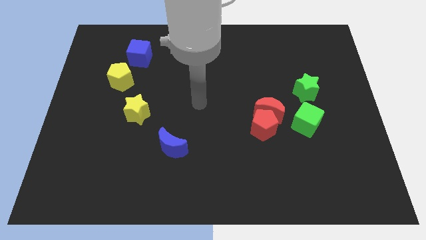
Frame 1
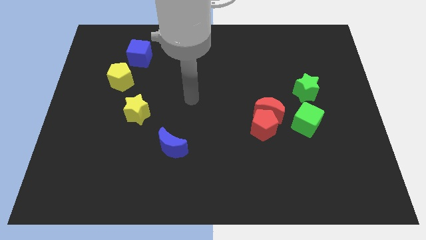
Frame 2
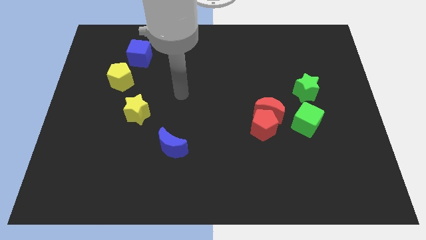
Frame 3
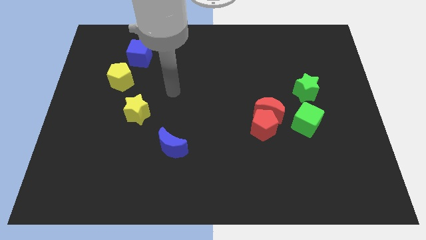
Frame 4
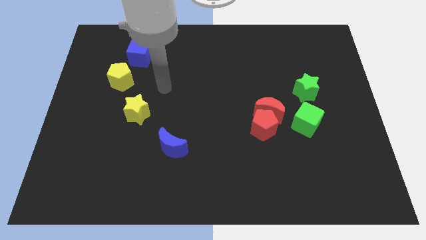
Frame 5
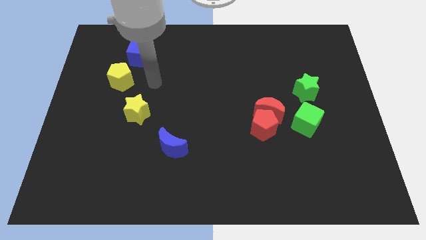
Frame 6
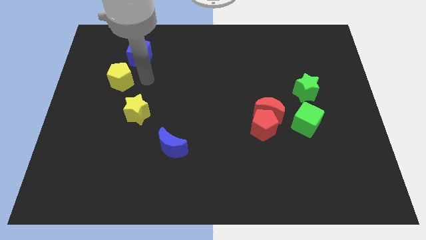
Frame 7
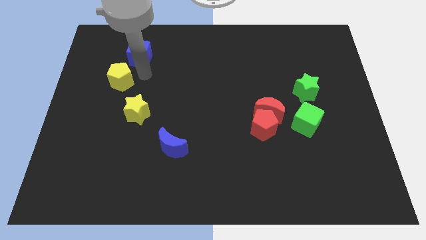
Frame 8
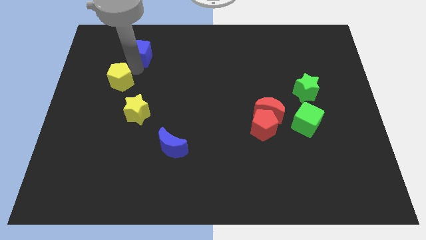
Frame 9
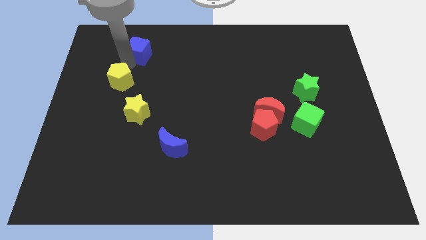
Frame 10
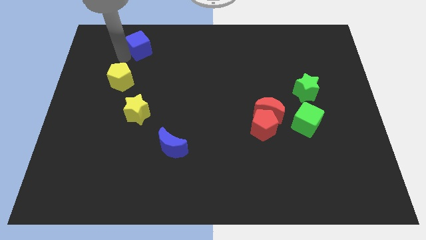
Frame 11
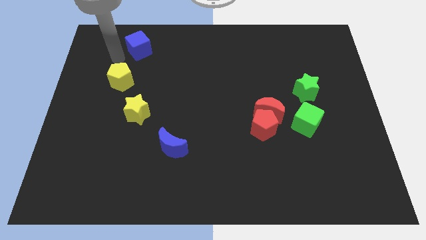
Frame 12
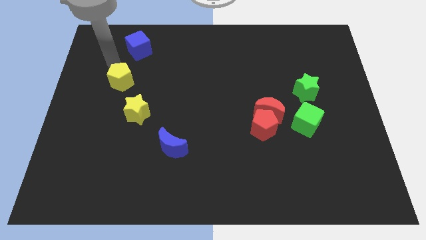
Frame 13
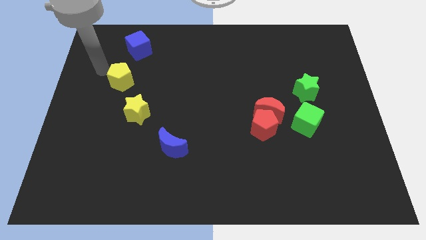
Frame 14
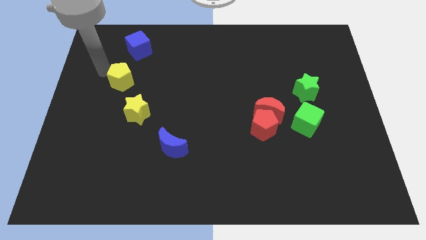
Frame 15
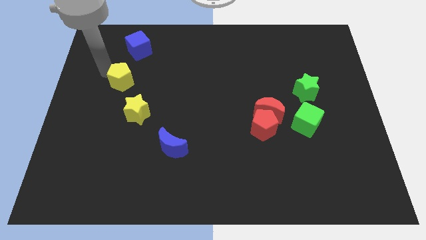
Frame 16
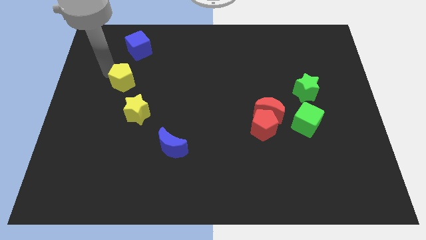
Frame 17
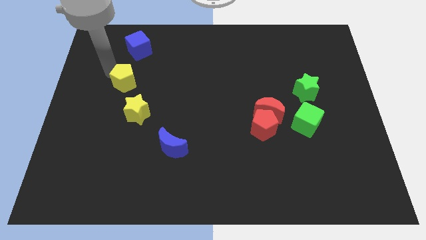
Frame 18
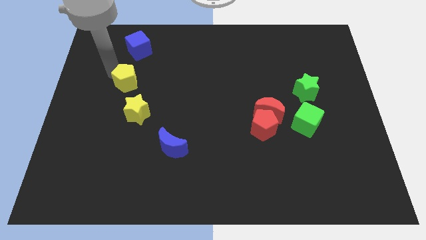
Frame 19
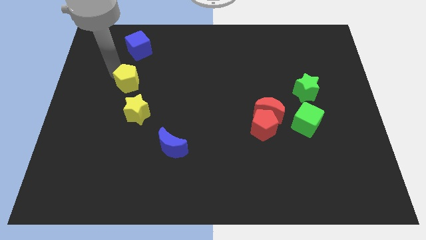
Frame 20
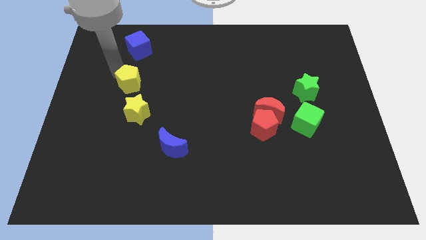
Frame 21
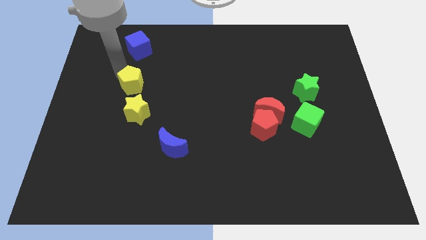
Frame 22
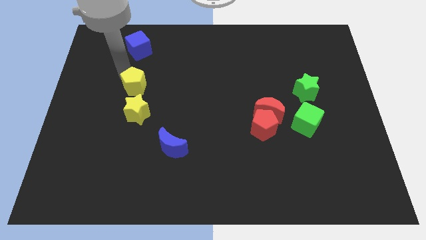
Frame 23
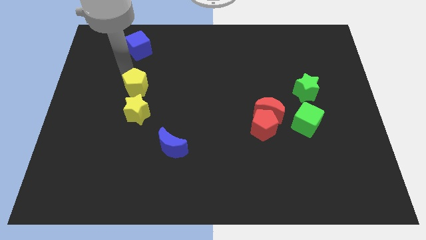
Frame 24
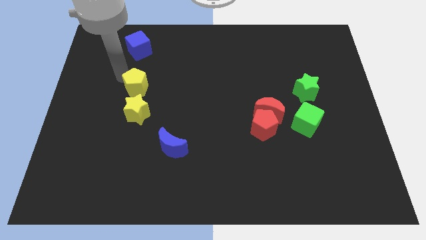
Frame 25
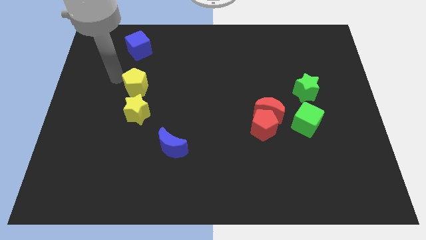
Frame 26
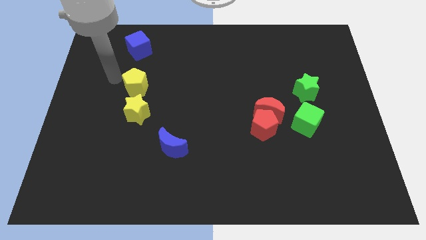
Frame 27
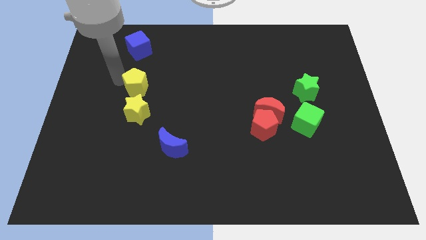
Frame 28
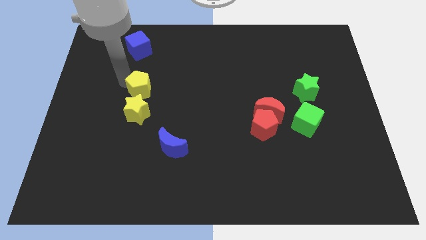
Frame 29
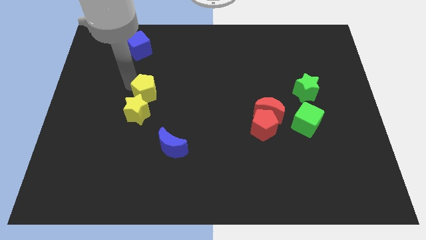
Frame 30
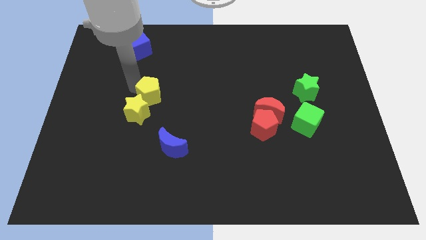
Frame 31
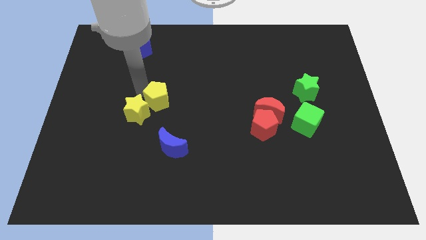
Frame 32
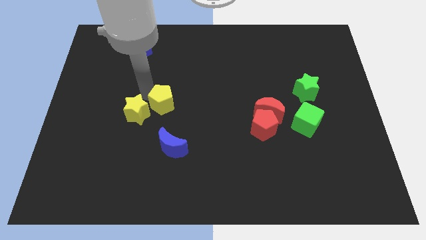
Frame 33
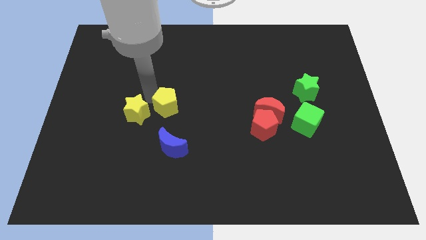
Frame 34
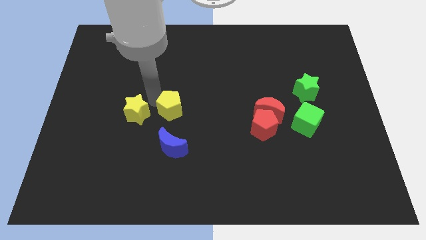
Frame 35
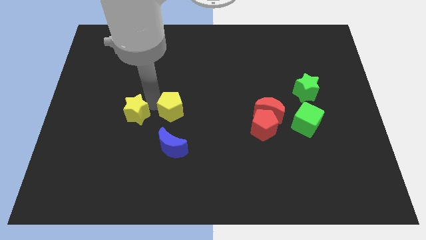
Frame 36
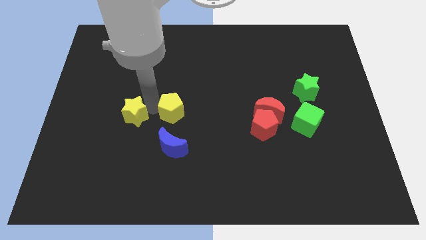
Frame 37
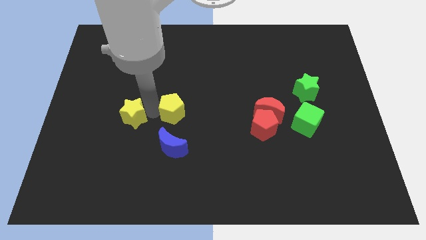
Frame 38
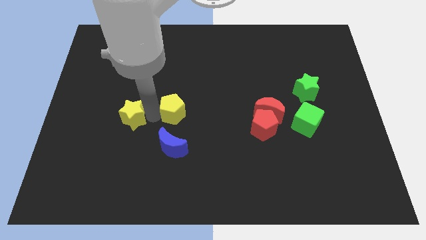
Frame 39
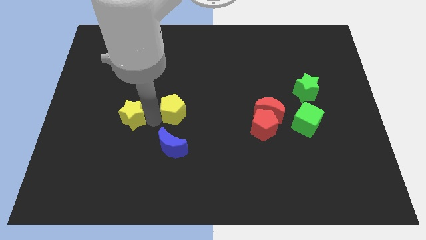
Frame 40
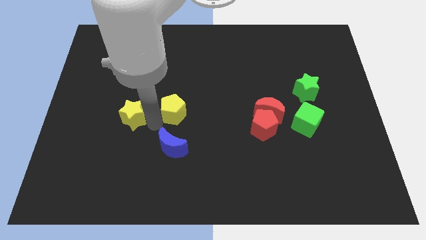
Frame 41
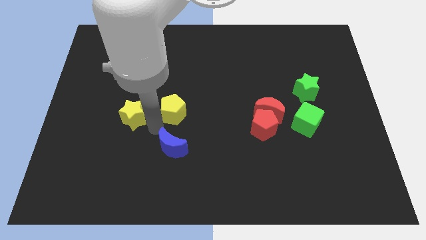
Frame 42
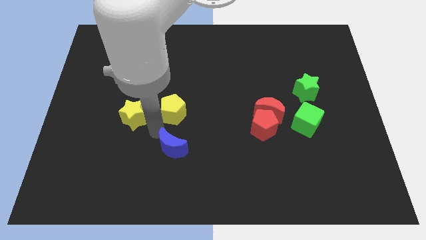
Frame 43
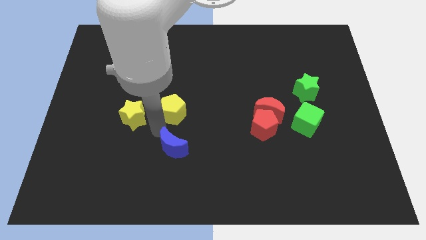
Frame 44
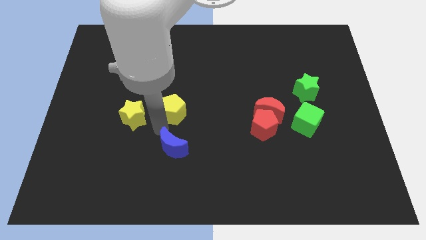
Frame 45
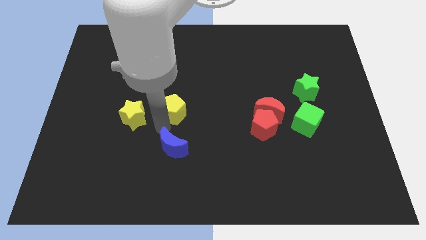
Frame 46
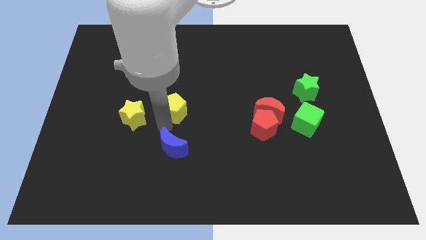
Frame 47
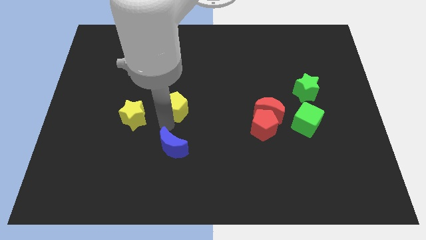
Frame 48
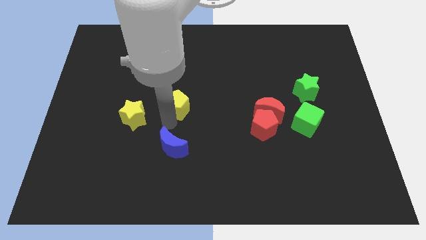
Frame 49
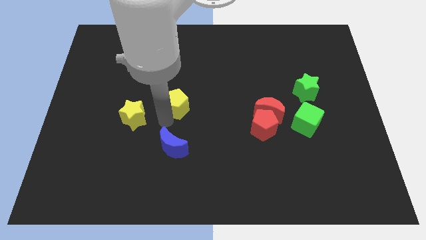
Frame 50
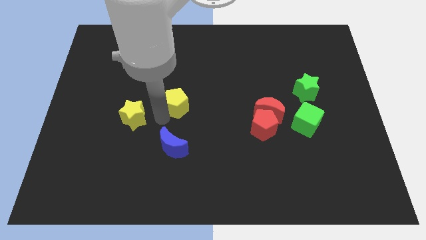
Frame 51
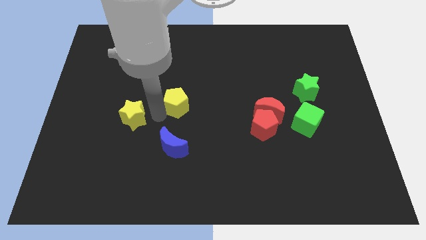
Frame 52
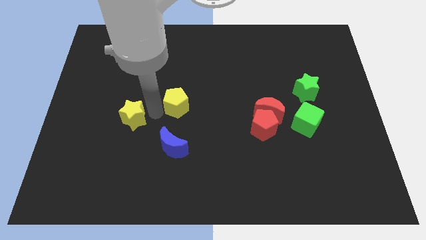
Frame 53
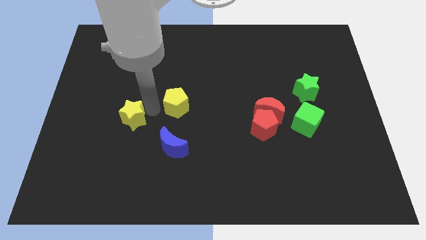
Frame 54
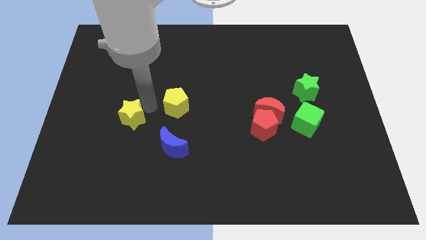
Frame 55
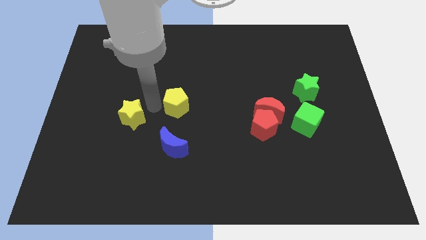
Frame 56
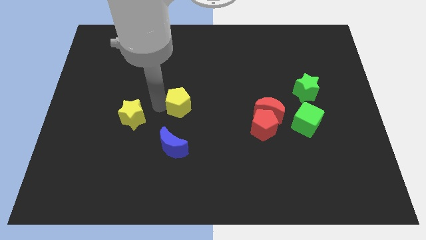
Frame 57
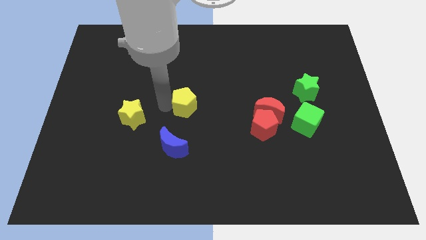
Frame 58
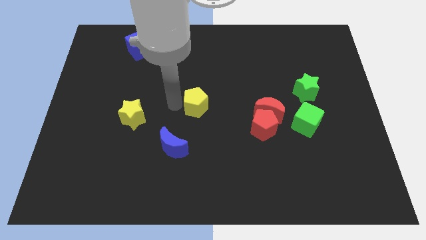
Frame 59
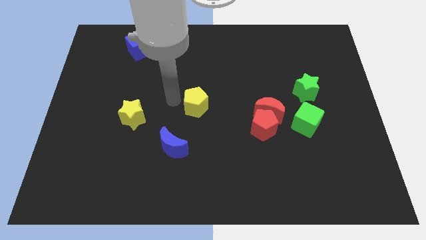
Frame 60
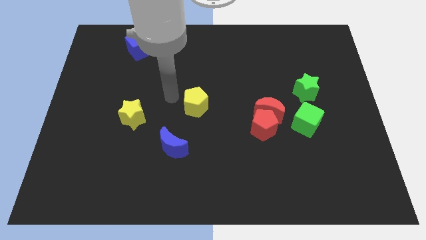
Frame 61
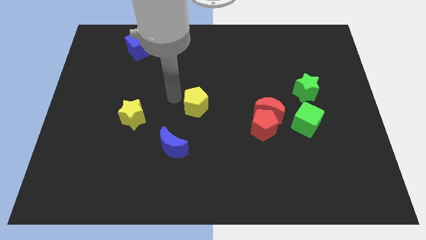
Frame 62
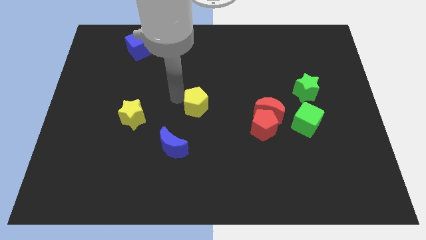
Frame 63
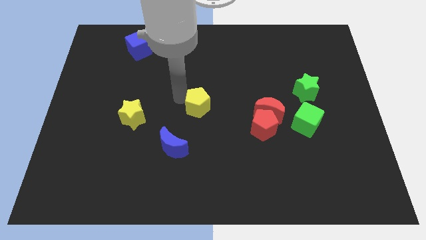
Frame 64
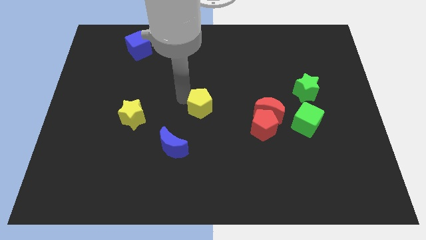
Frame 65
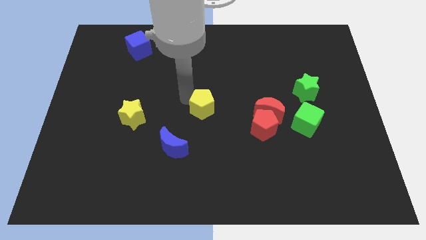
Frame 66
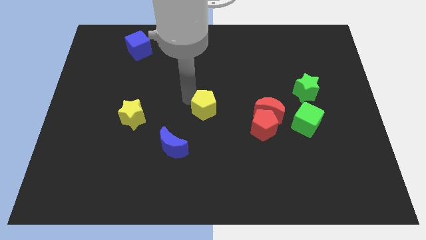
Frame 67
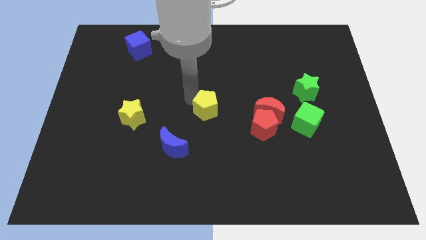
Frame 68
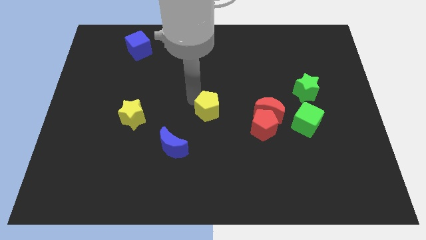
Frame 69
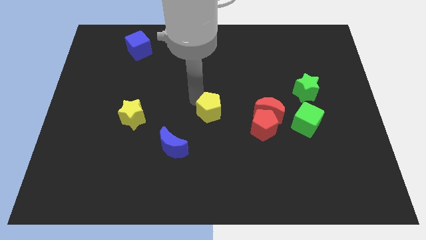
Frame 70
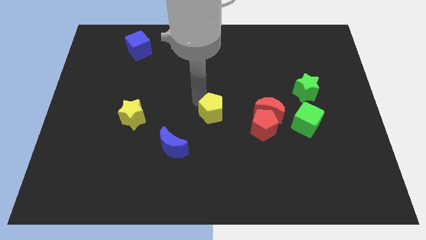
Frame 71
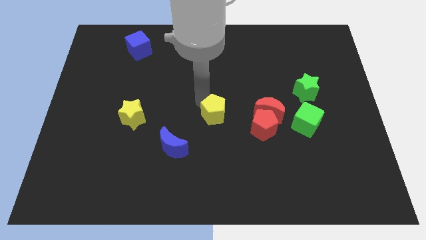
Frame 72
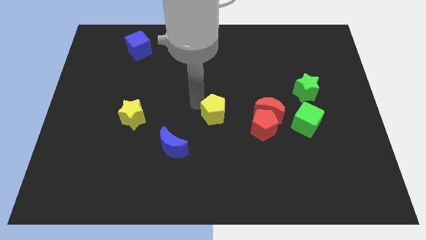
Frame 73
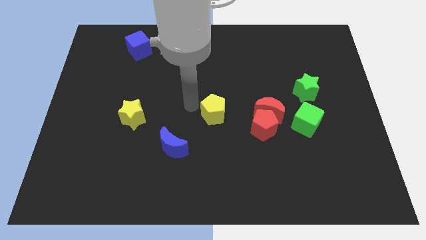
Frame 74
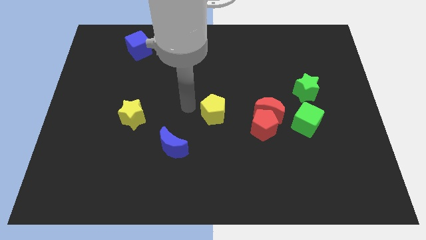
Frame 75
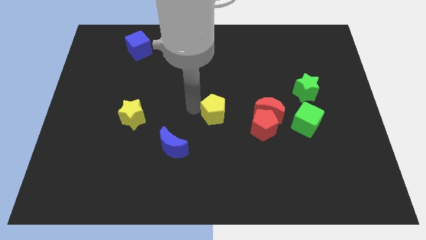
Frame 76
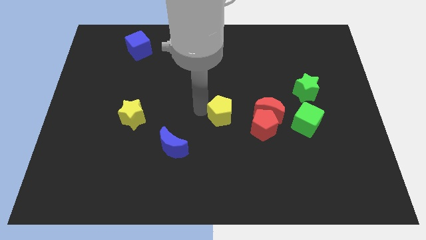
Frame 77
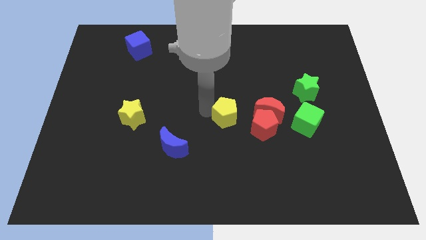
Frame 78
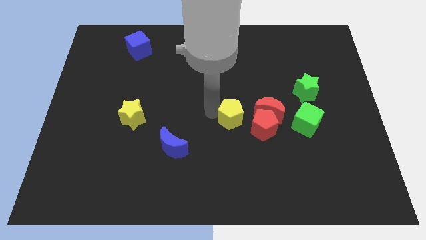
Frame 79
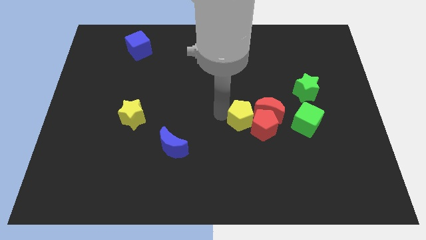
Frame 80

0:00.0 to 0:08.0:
push the yellow pentagon to the red pentagon
